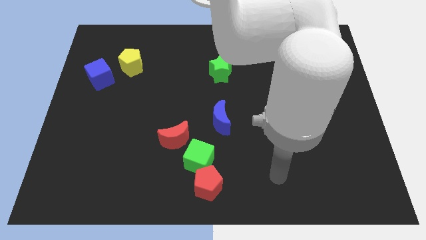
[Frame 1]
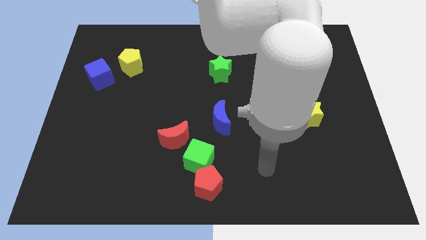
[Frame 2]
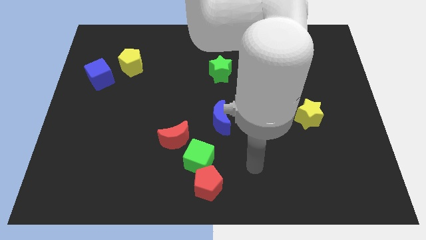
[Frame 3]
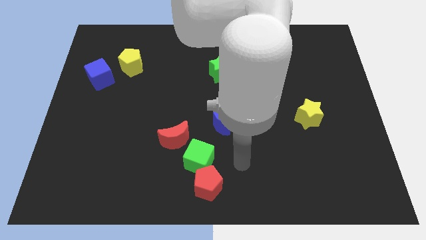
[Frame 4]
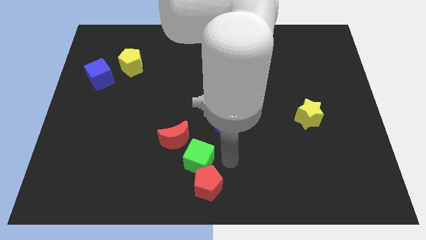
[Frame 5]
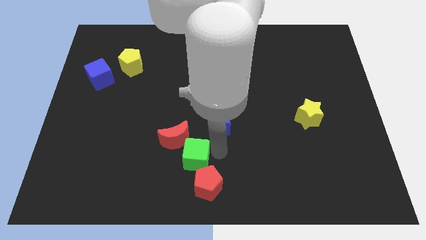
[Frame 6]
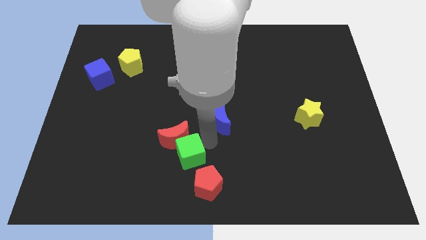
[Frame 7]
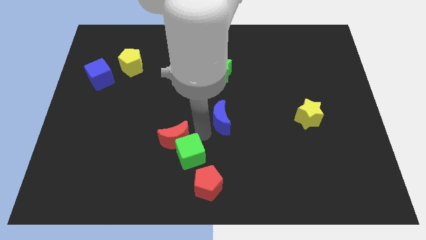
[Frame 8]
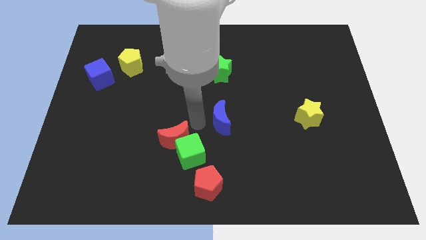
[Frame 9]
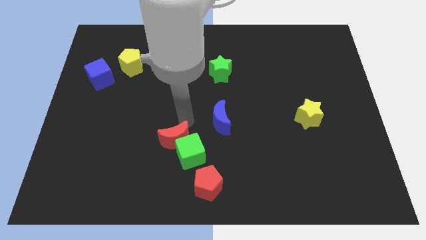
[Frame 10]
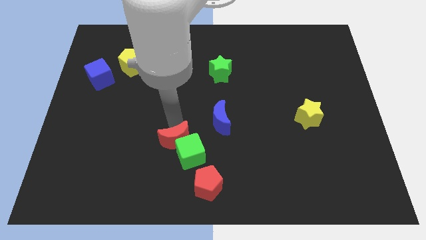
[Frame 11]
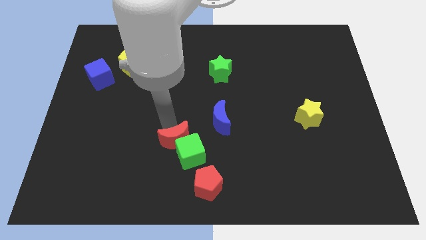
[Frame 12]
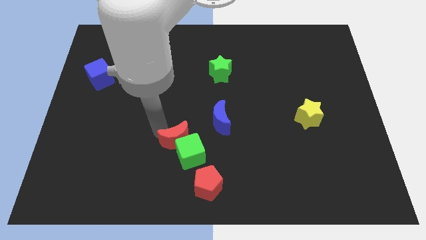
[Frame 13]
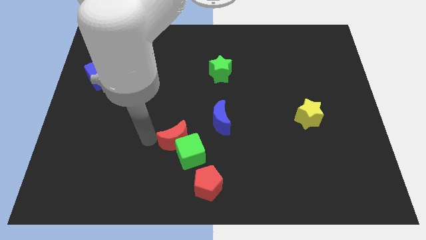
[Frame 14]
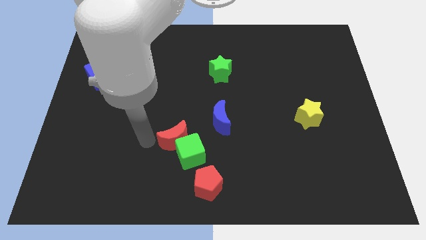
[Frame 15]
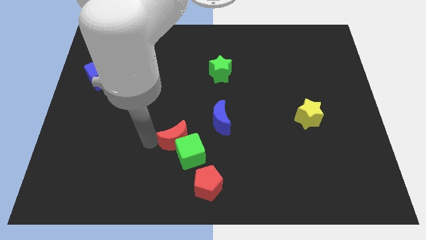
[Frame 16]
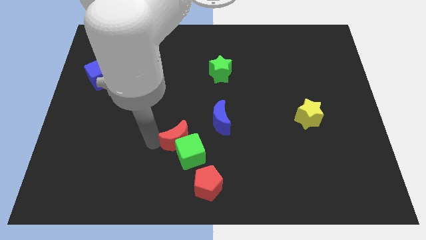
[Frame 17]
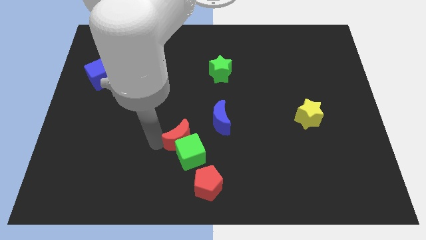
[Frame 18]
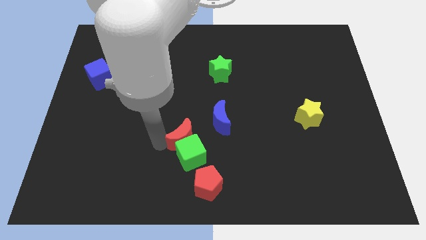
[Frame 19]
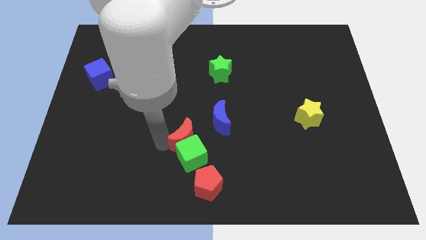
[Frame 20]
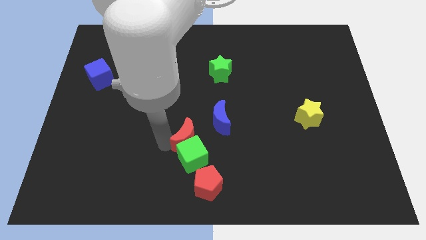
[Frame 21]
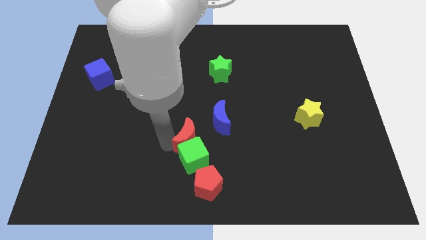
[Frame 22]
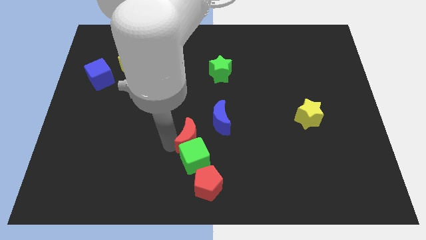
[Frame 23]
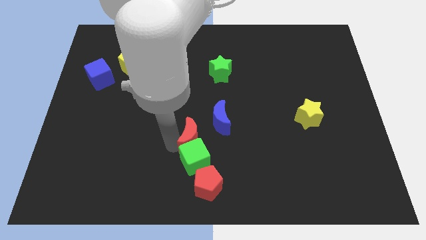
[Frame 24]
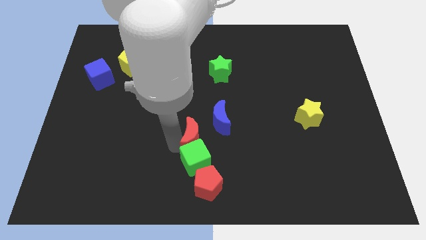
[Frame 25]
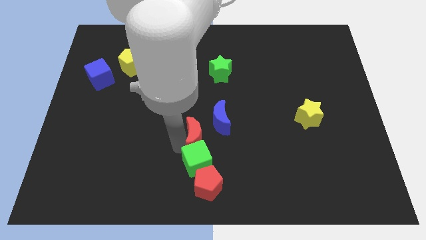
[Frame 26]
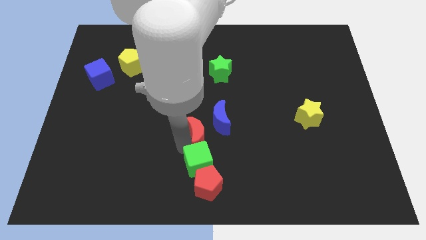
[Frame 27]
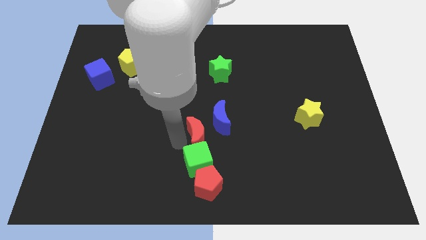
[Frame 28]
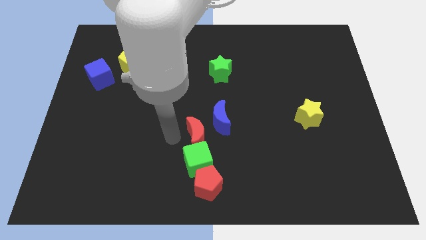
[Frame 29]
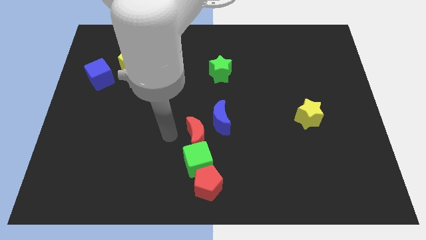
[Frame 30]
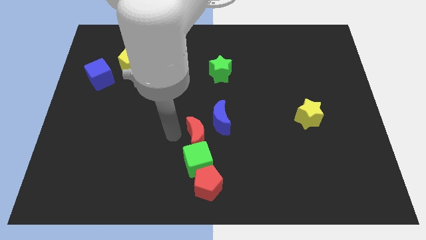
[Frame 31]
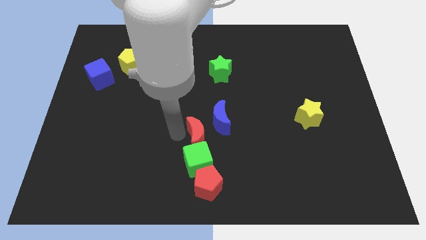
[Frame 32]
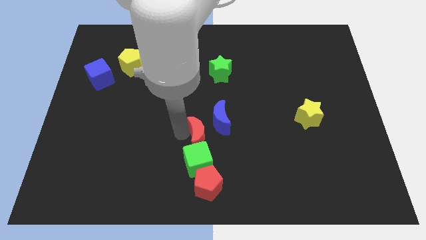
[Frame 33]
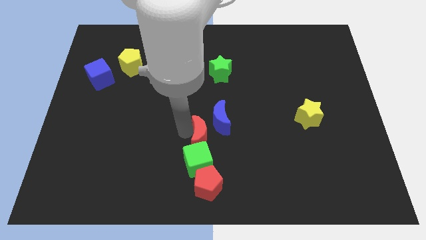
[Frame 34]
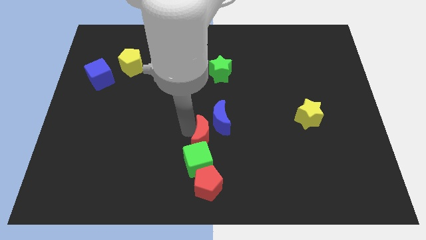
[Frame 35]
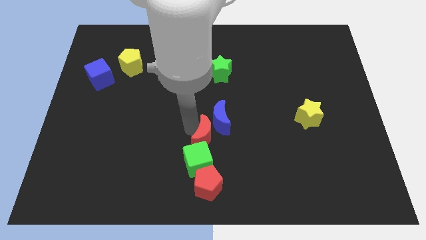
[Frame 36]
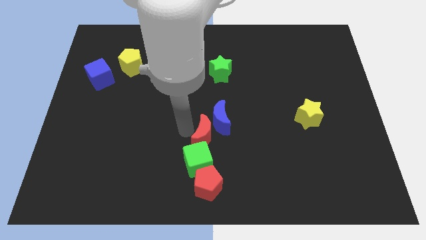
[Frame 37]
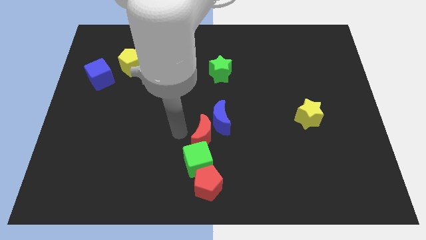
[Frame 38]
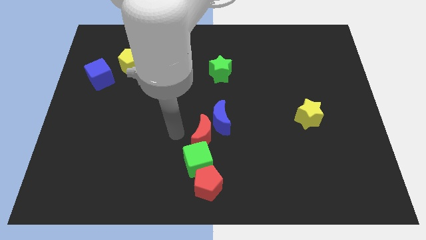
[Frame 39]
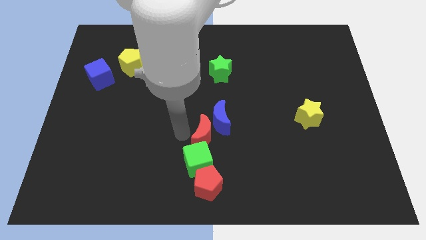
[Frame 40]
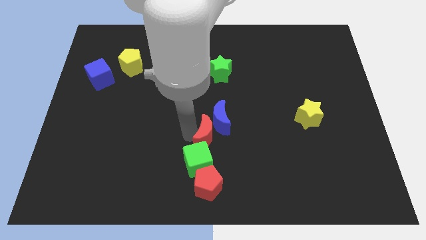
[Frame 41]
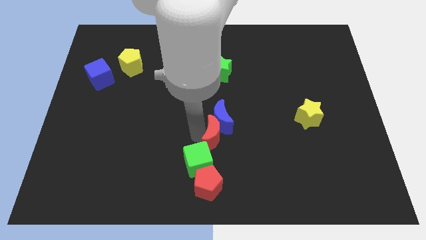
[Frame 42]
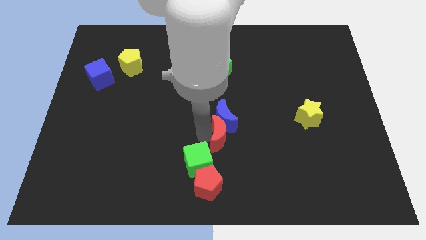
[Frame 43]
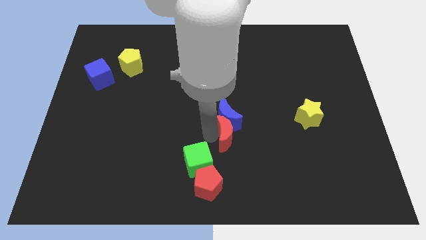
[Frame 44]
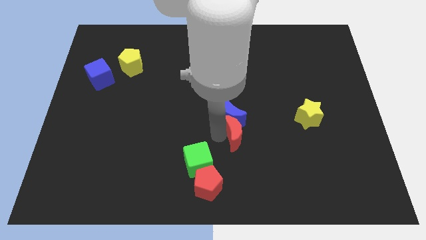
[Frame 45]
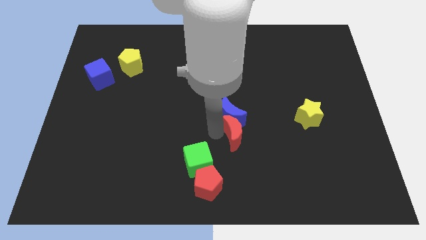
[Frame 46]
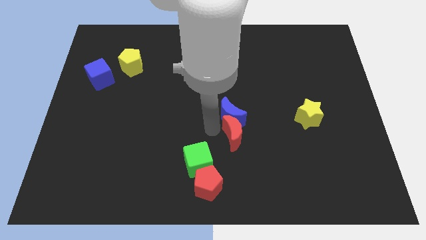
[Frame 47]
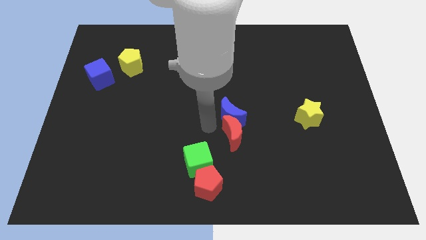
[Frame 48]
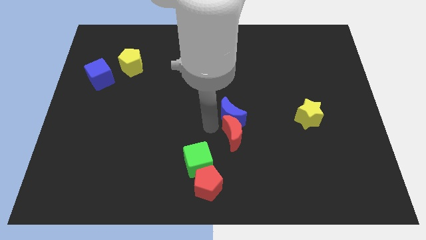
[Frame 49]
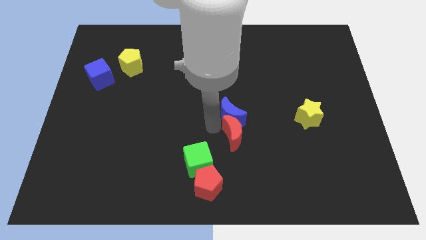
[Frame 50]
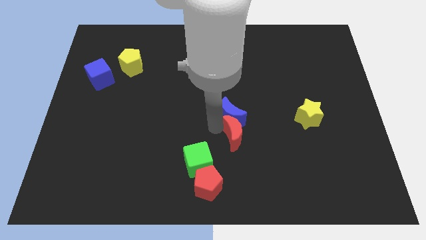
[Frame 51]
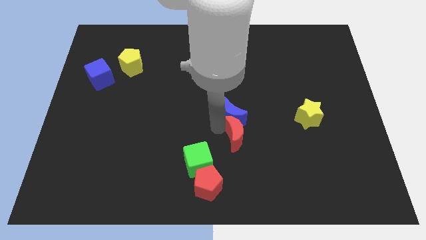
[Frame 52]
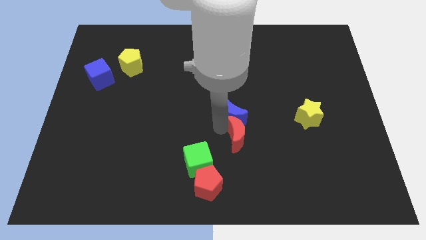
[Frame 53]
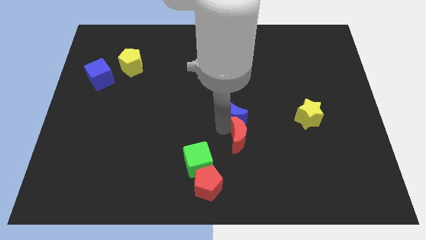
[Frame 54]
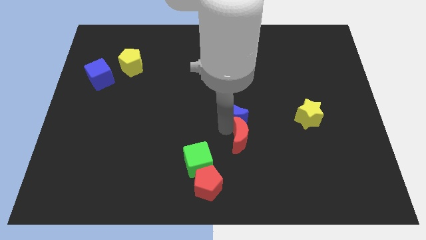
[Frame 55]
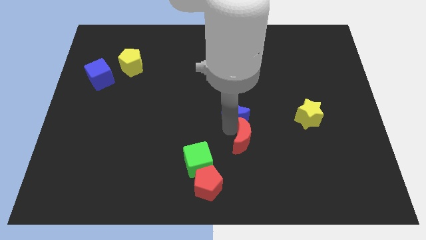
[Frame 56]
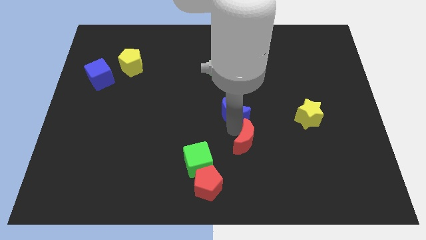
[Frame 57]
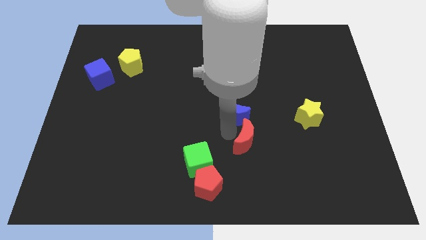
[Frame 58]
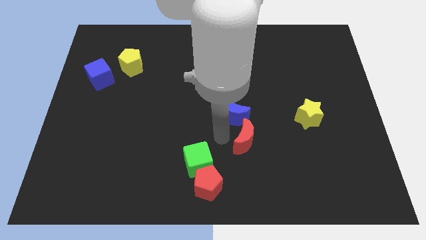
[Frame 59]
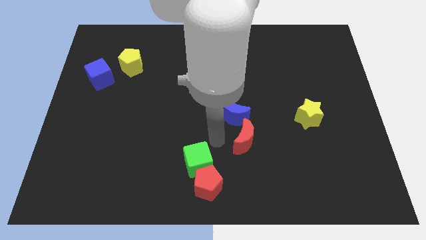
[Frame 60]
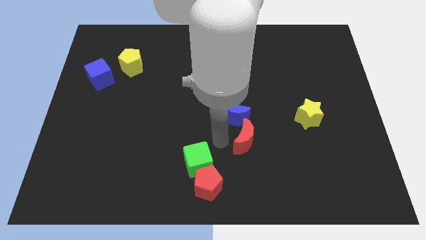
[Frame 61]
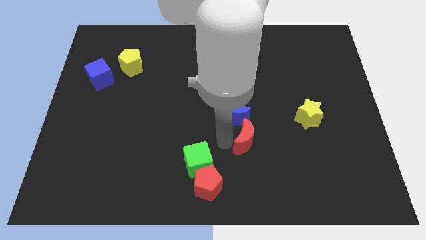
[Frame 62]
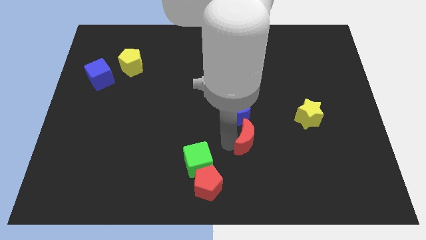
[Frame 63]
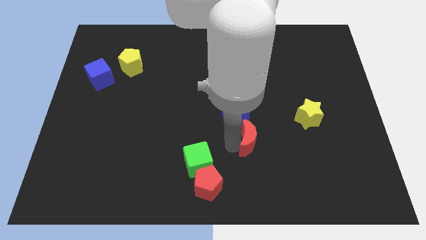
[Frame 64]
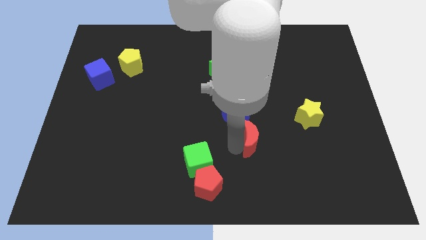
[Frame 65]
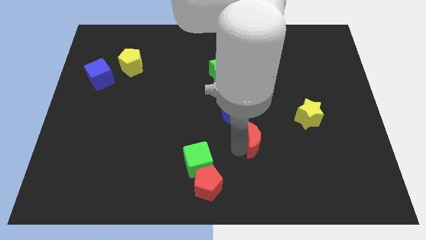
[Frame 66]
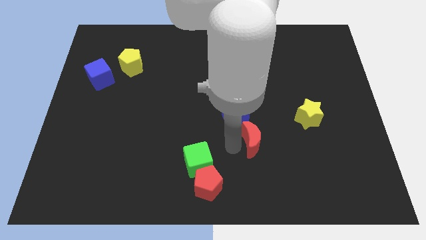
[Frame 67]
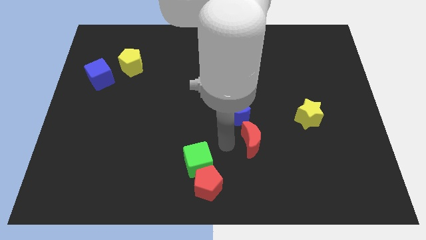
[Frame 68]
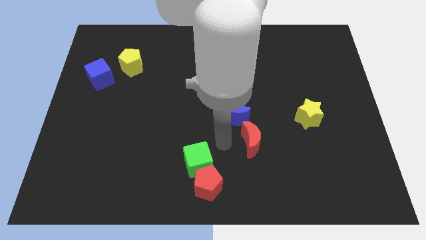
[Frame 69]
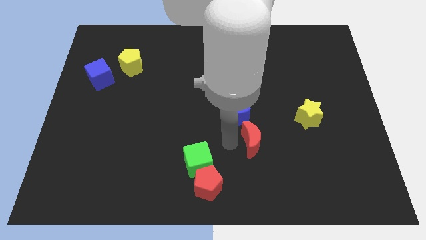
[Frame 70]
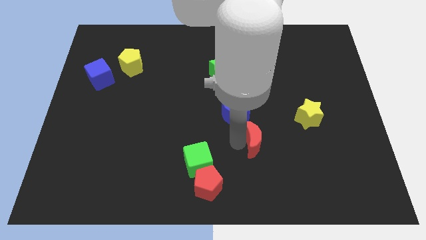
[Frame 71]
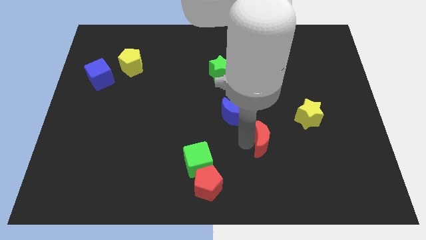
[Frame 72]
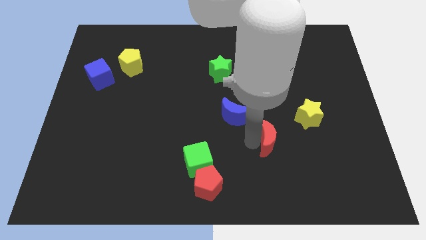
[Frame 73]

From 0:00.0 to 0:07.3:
push the red moon to the right

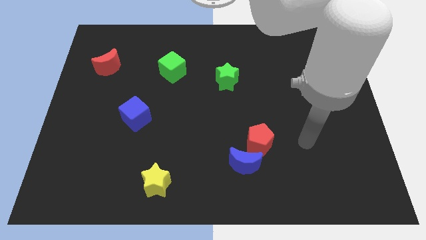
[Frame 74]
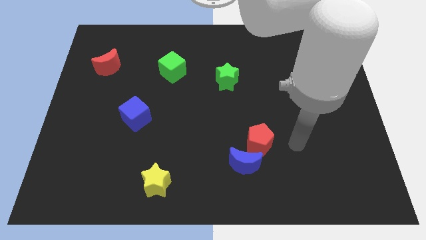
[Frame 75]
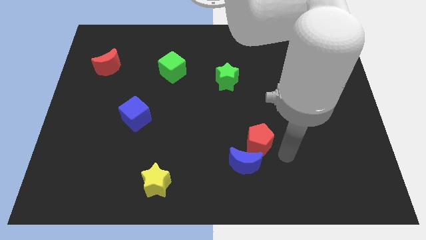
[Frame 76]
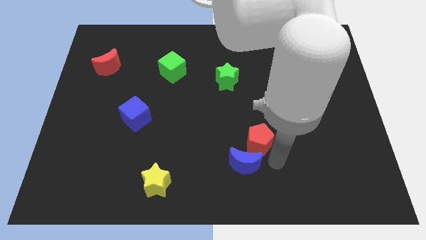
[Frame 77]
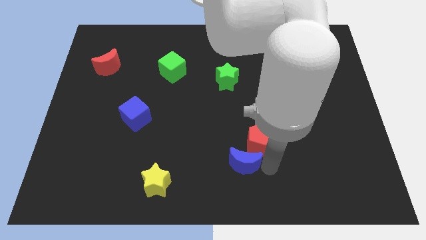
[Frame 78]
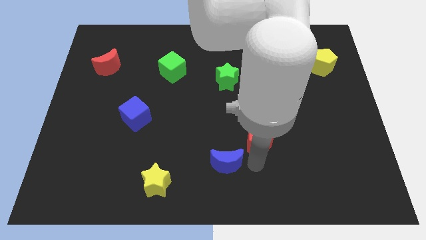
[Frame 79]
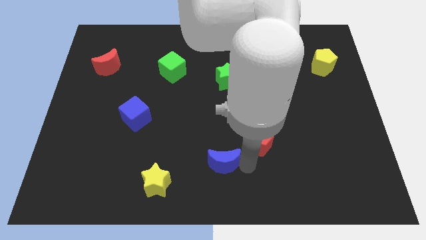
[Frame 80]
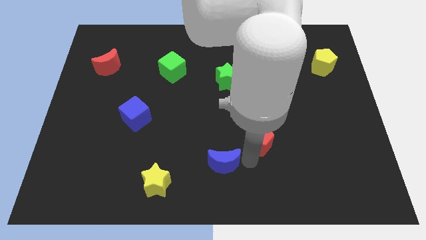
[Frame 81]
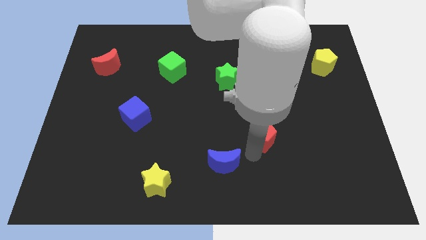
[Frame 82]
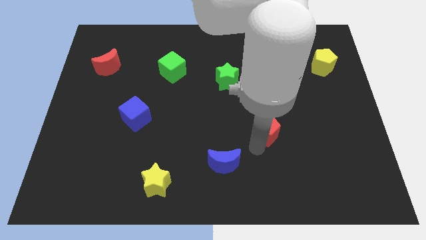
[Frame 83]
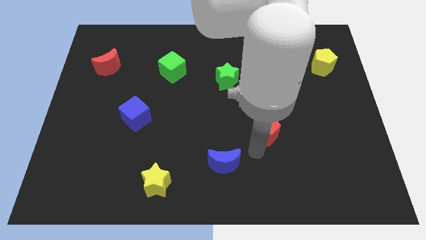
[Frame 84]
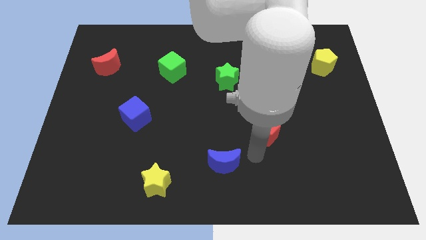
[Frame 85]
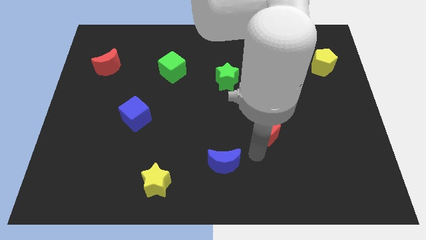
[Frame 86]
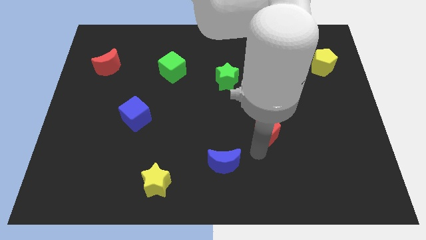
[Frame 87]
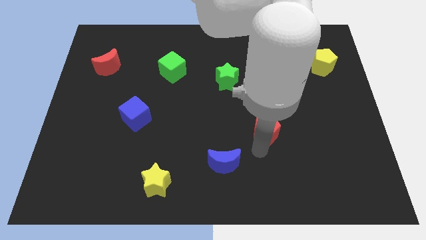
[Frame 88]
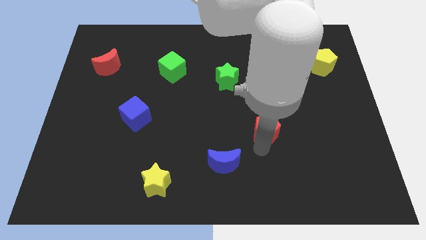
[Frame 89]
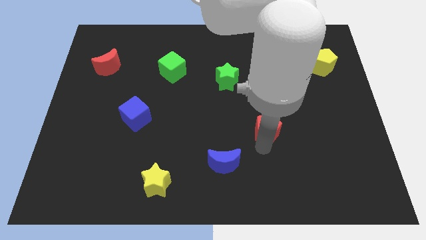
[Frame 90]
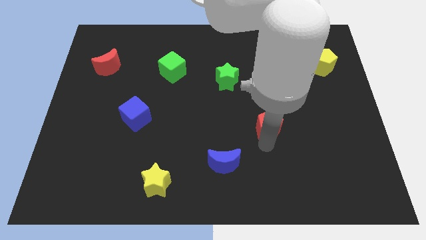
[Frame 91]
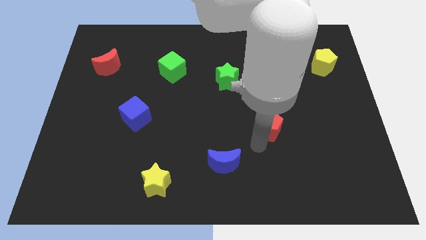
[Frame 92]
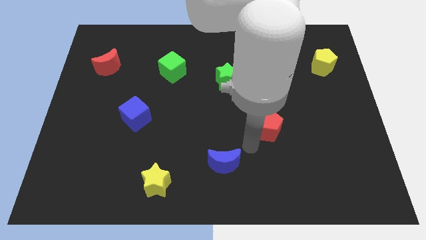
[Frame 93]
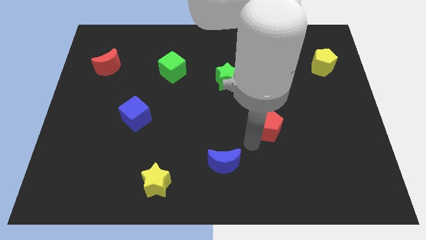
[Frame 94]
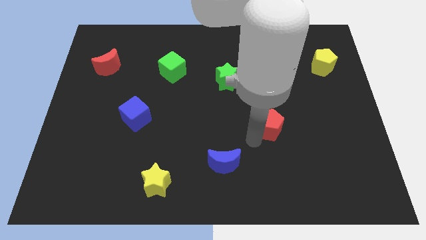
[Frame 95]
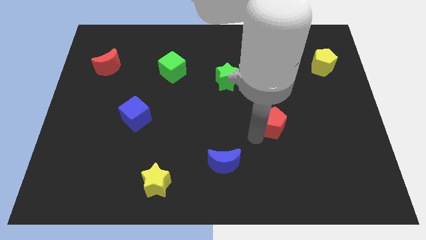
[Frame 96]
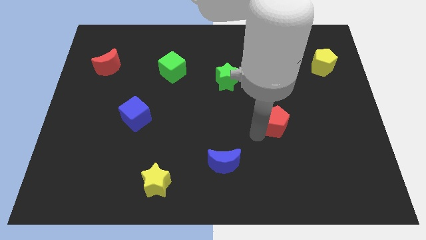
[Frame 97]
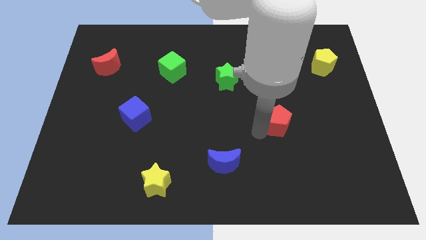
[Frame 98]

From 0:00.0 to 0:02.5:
push the red pentagon upwards and right diagonally a bit
